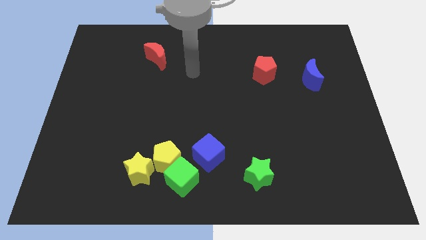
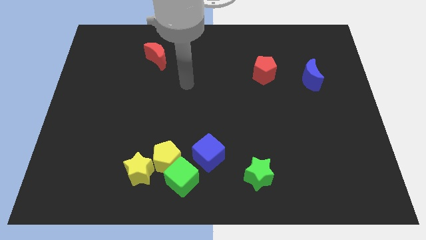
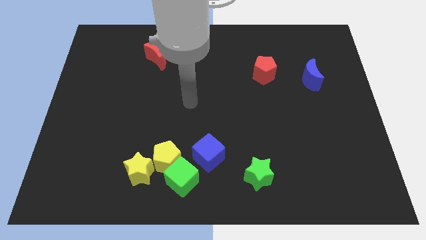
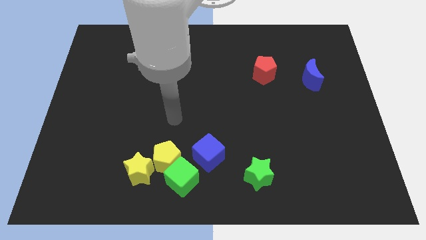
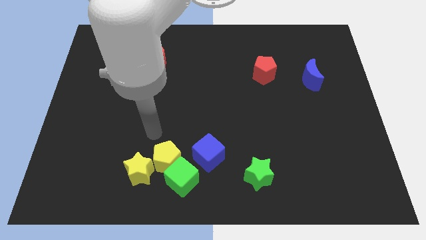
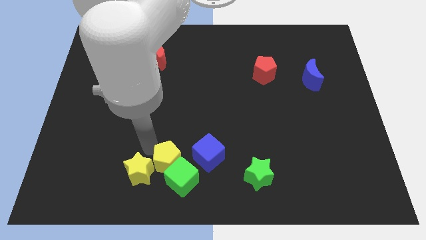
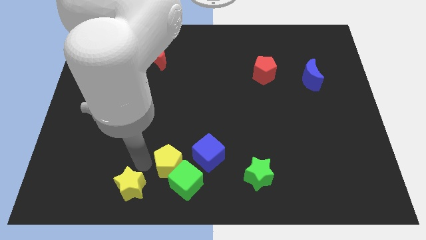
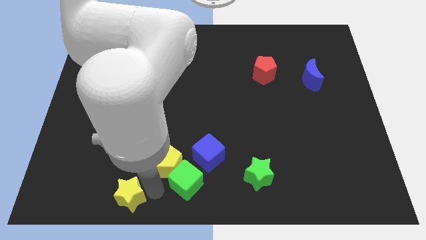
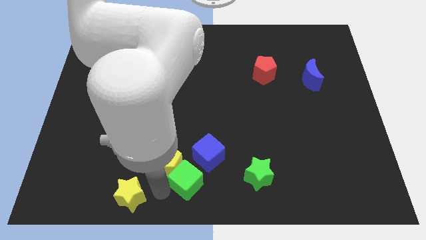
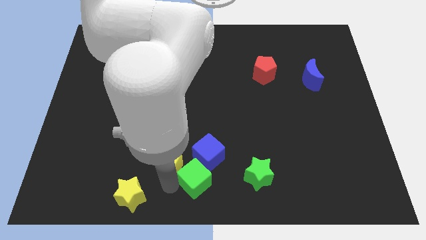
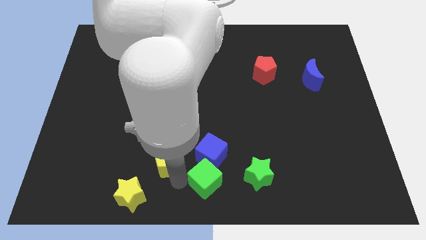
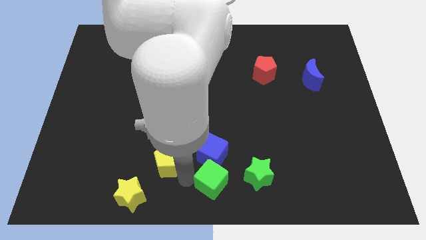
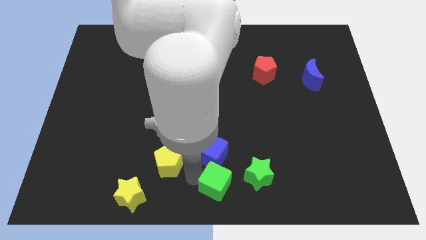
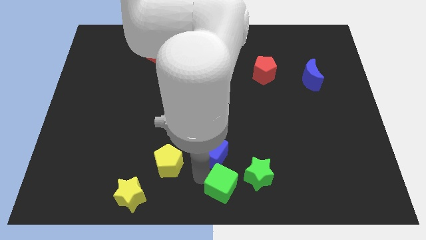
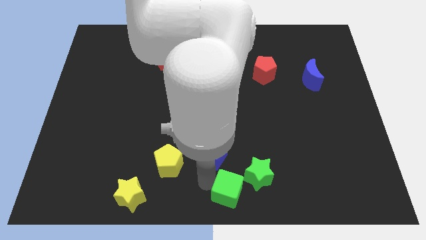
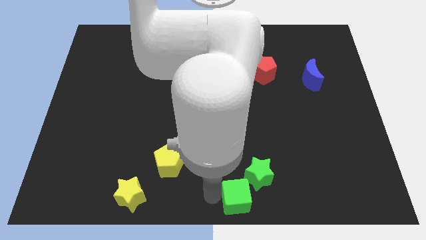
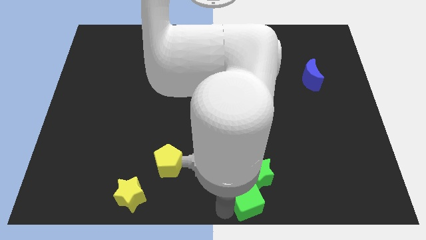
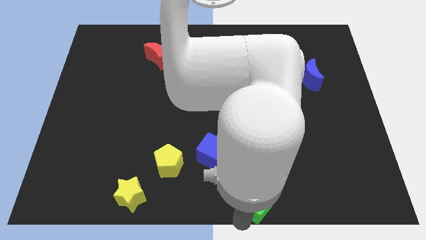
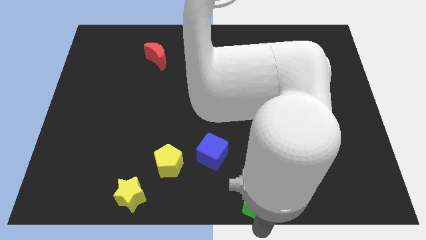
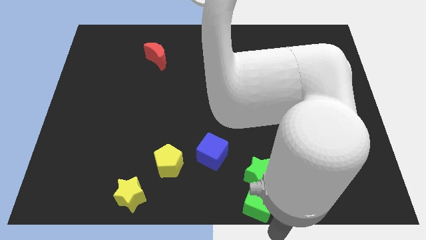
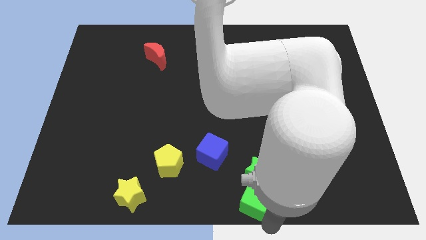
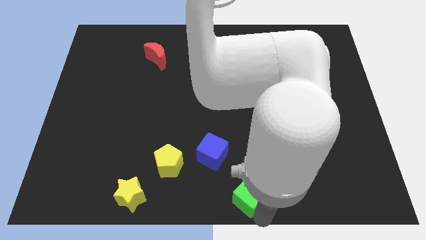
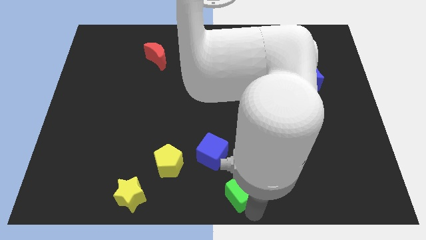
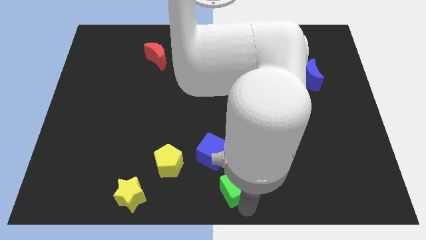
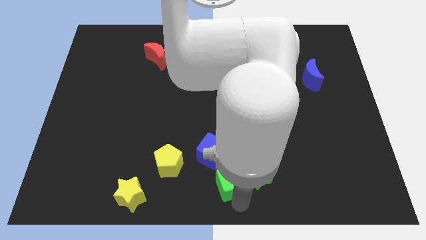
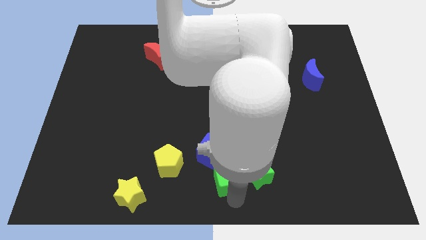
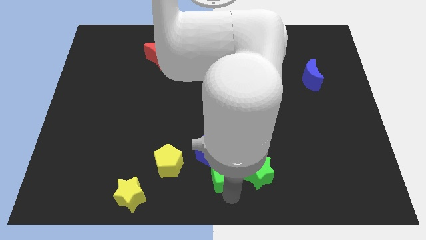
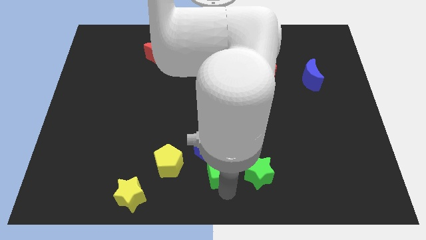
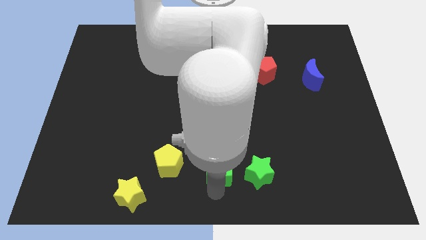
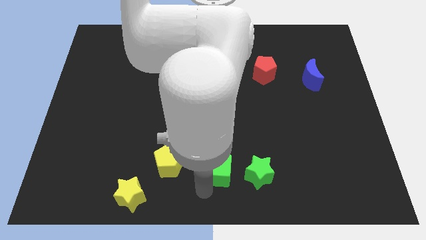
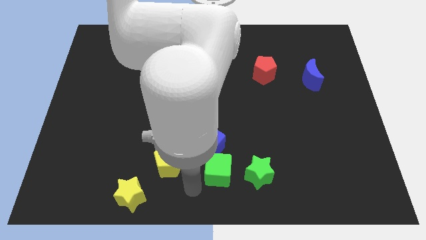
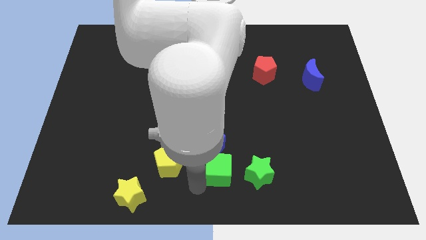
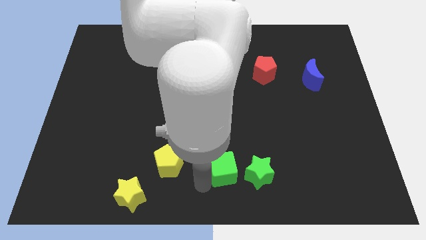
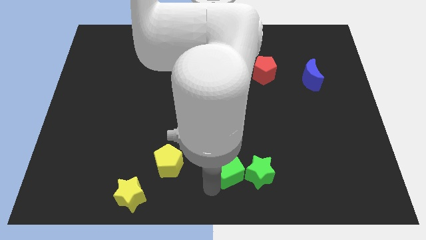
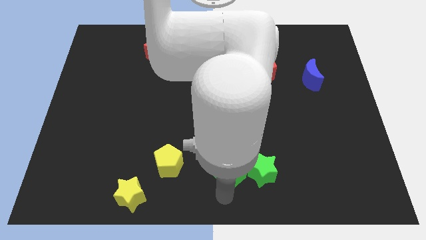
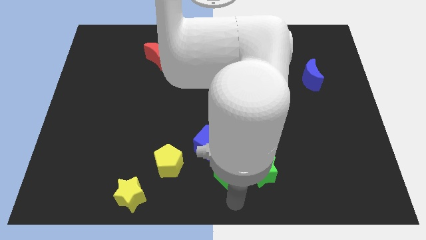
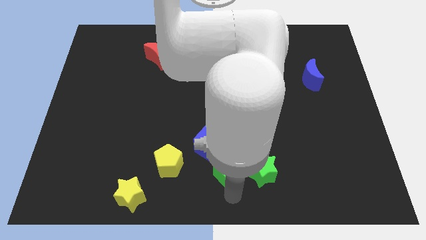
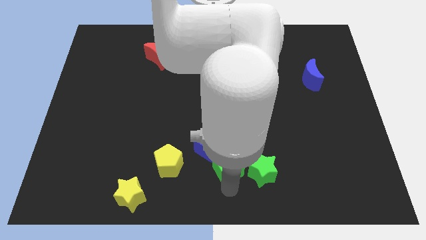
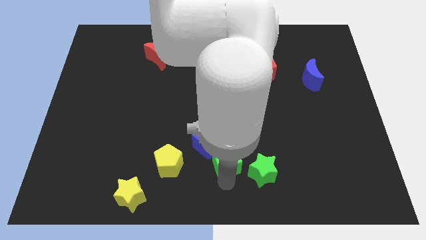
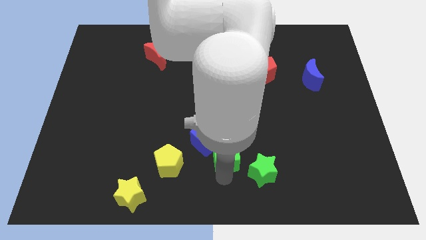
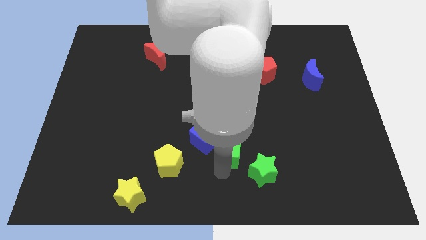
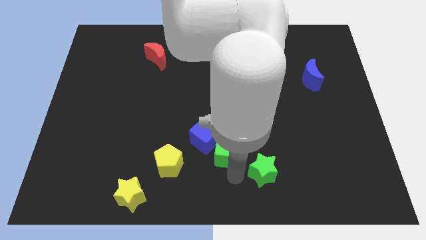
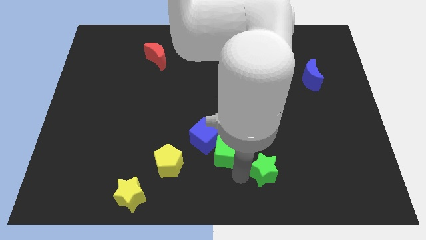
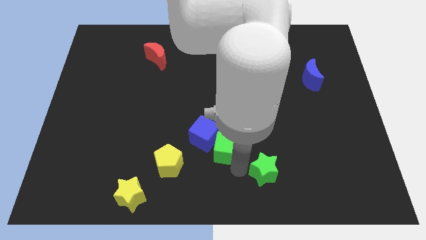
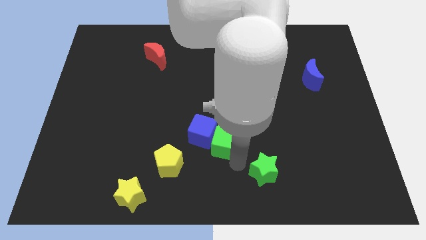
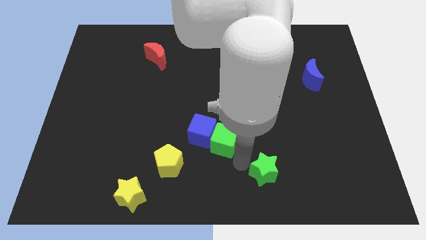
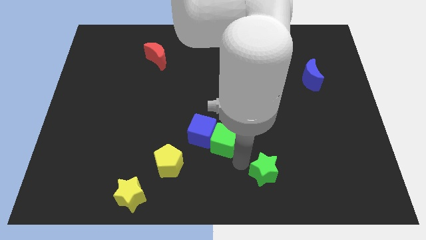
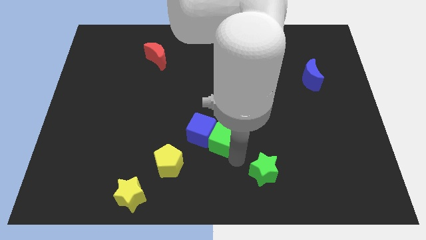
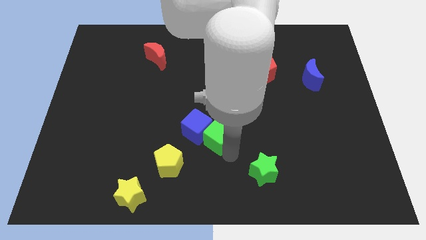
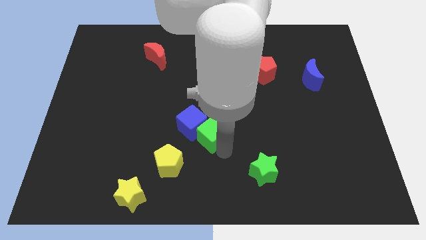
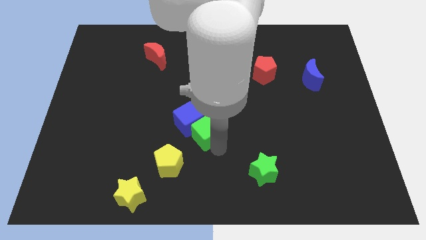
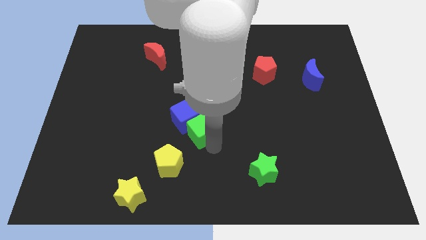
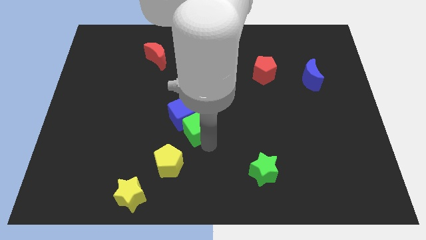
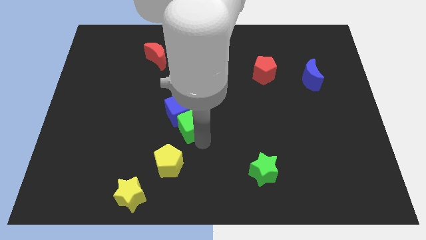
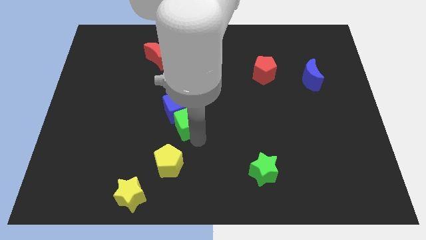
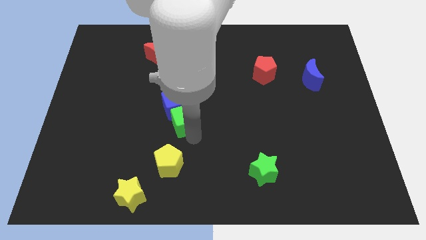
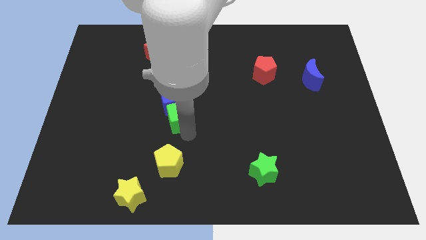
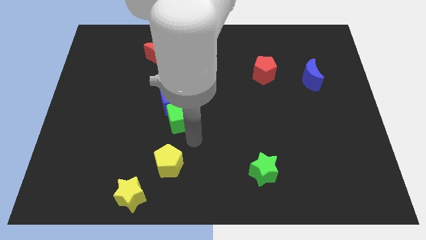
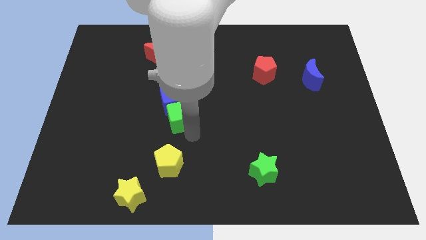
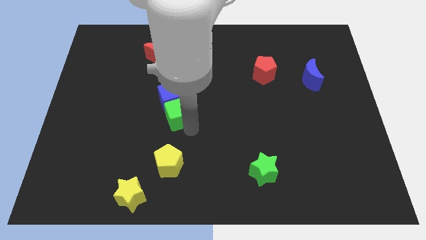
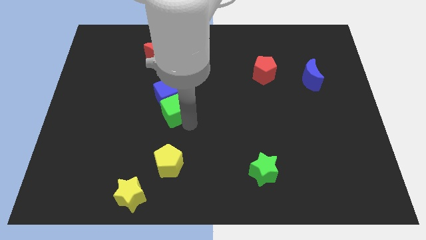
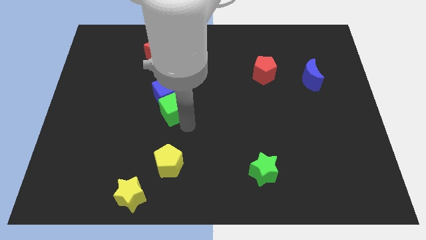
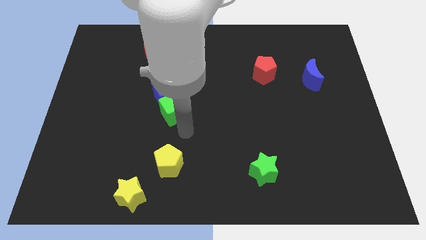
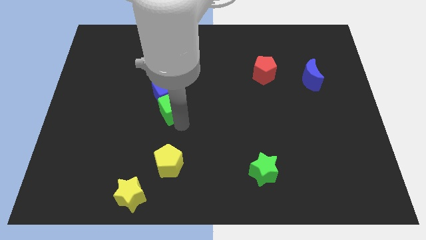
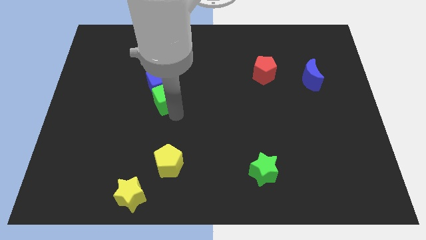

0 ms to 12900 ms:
put the green cube below the red moon
